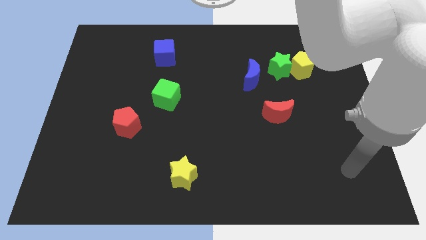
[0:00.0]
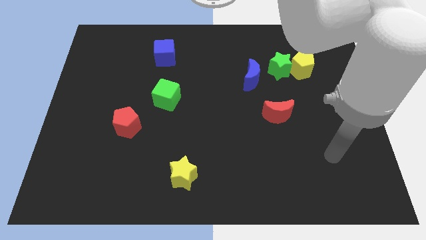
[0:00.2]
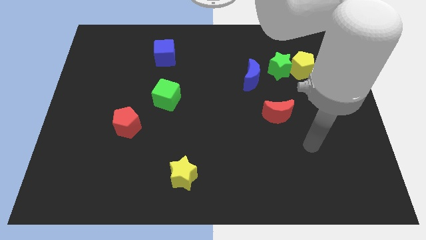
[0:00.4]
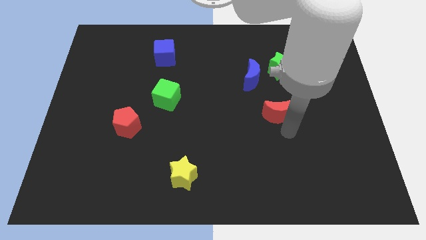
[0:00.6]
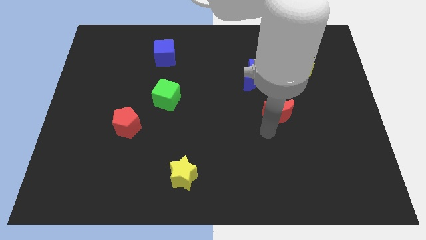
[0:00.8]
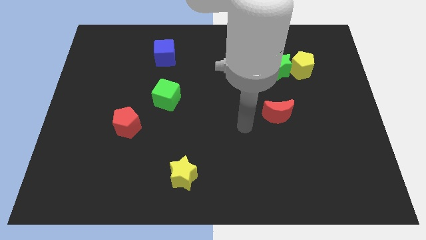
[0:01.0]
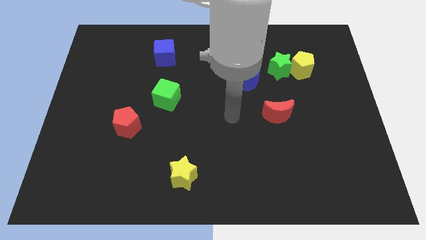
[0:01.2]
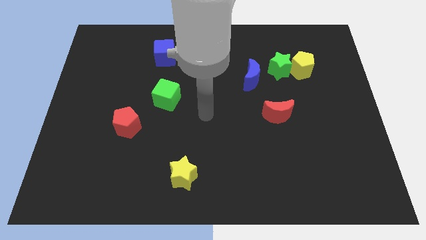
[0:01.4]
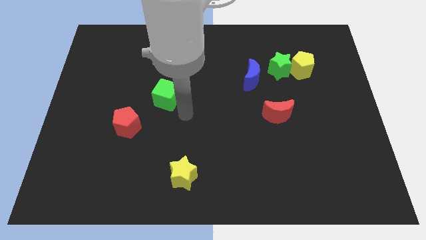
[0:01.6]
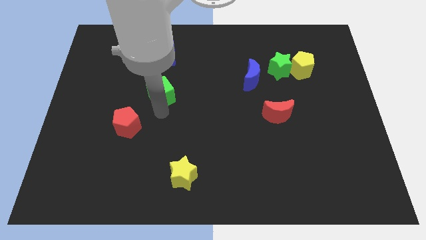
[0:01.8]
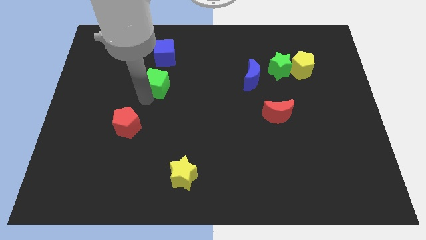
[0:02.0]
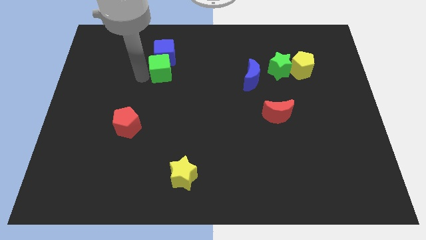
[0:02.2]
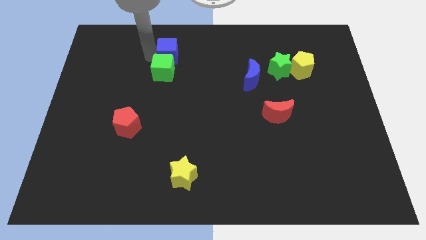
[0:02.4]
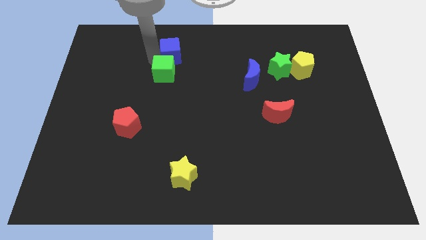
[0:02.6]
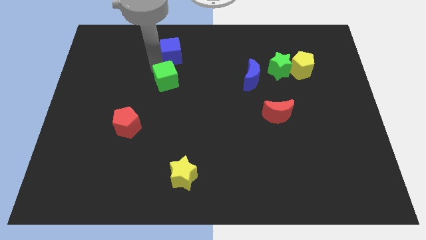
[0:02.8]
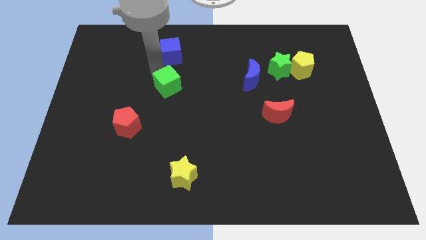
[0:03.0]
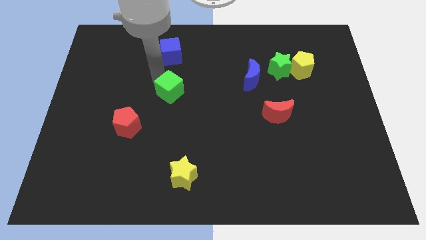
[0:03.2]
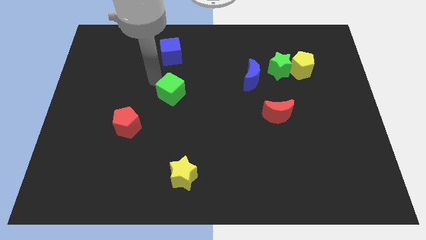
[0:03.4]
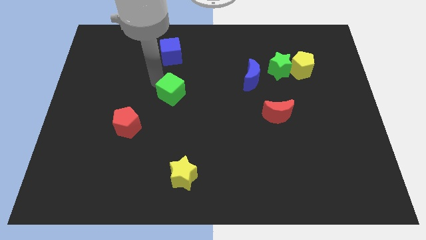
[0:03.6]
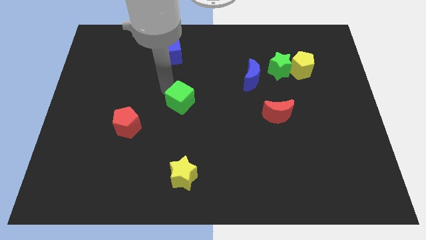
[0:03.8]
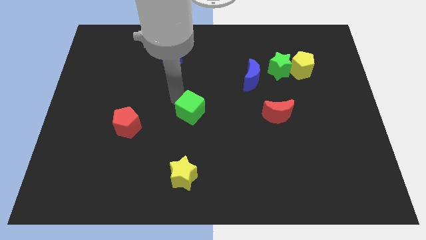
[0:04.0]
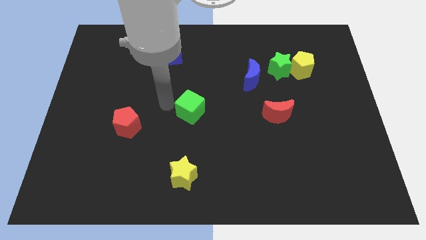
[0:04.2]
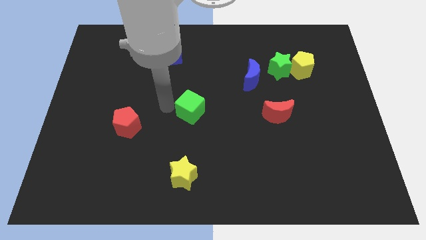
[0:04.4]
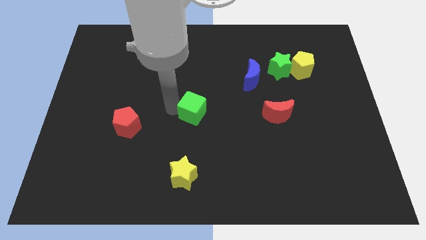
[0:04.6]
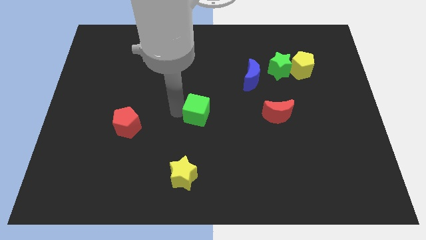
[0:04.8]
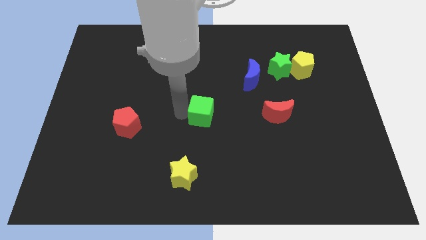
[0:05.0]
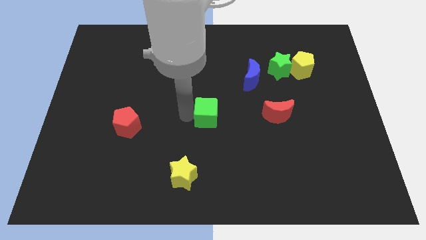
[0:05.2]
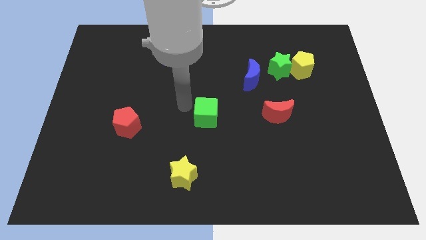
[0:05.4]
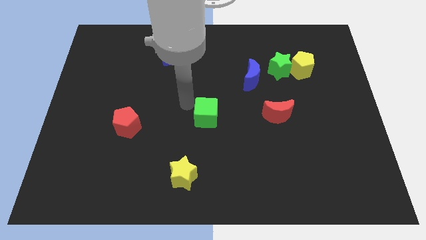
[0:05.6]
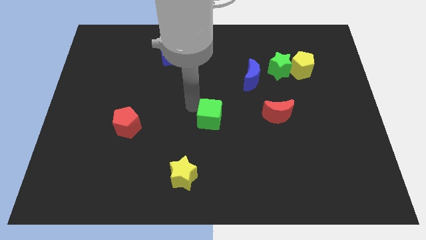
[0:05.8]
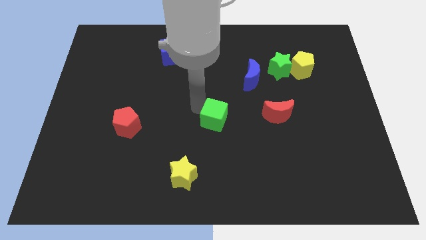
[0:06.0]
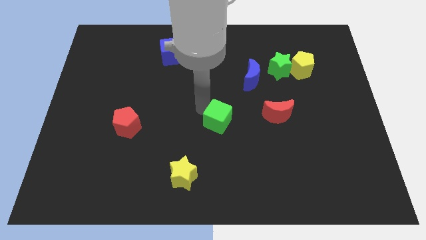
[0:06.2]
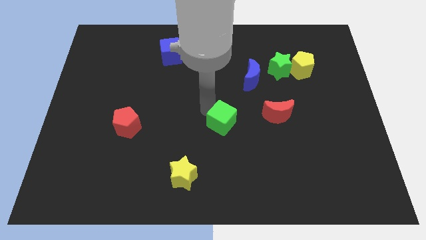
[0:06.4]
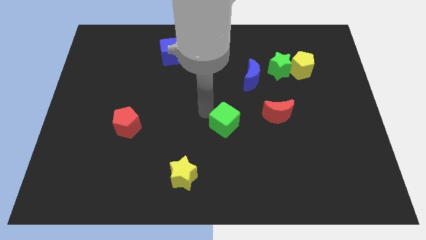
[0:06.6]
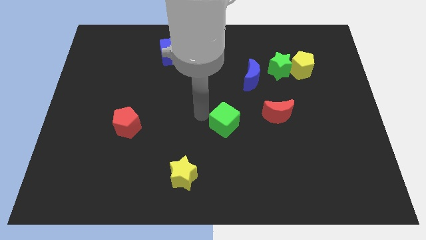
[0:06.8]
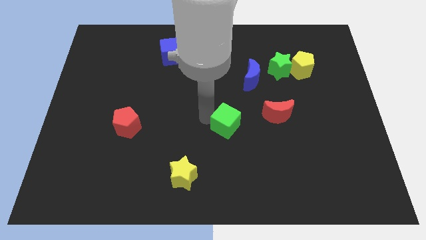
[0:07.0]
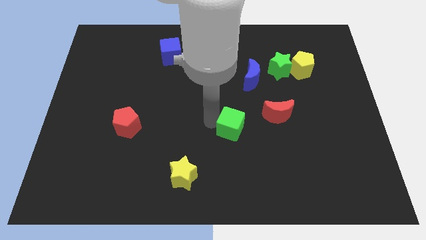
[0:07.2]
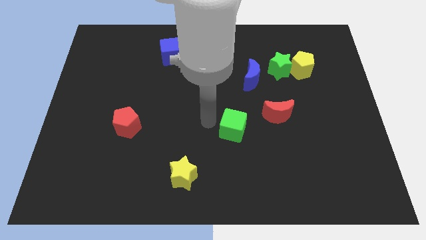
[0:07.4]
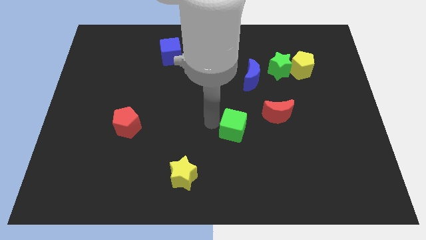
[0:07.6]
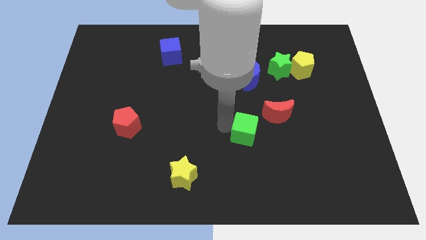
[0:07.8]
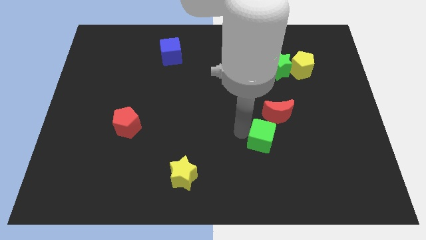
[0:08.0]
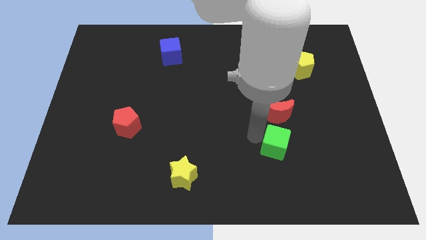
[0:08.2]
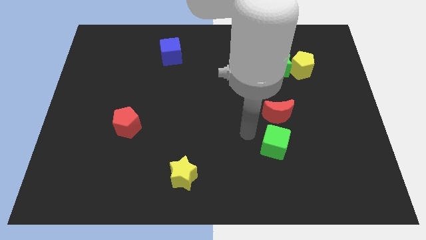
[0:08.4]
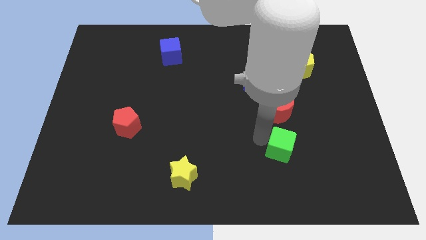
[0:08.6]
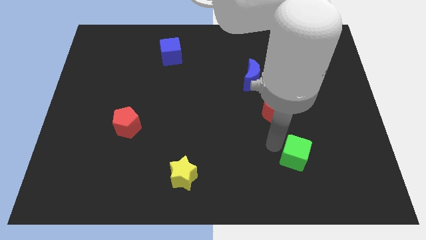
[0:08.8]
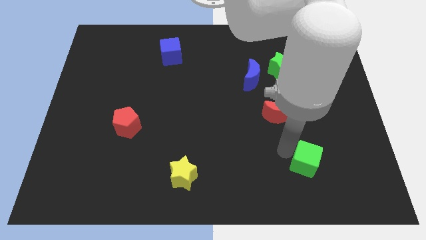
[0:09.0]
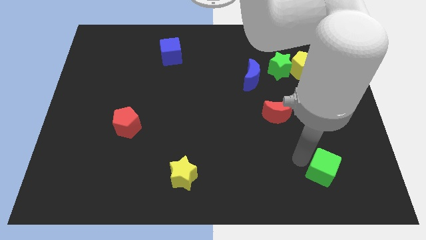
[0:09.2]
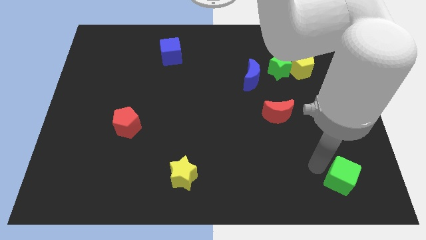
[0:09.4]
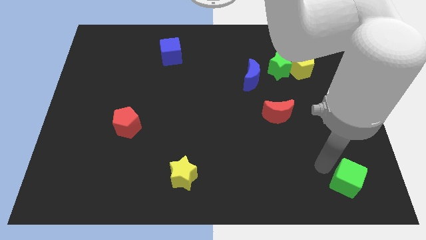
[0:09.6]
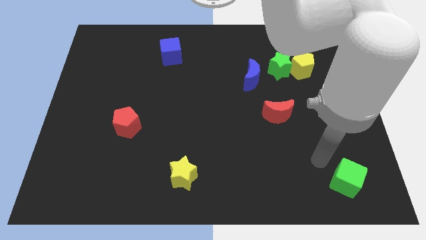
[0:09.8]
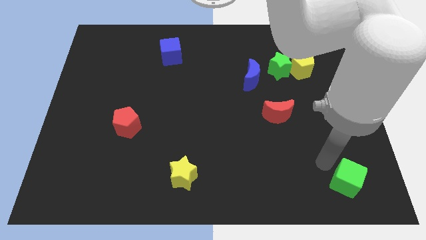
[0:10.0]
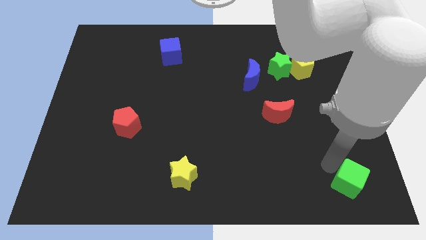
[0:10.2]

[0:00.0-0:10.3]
push the green cube to the lower right corner

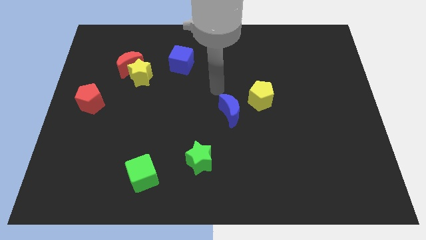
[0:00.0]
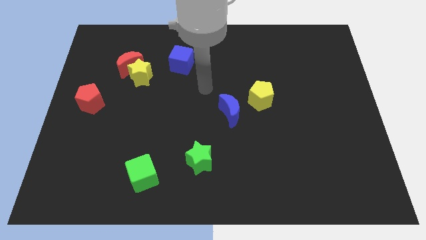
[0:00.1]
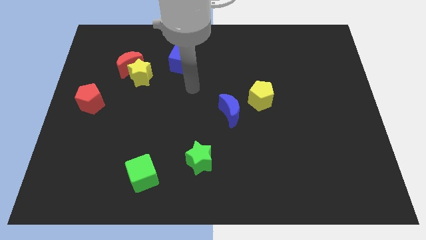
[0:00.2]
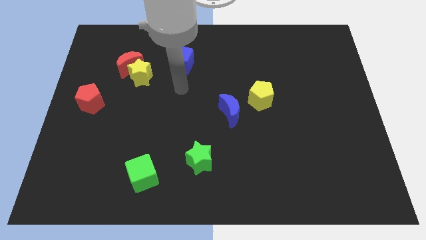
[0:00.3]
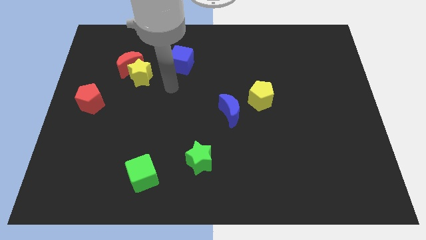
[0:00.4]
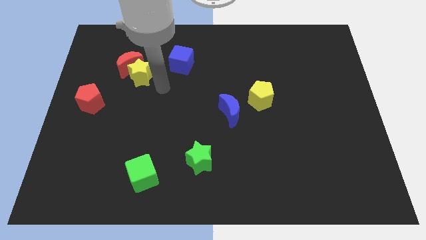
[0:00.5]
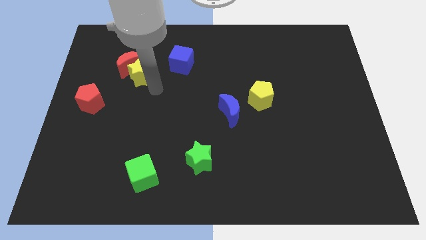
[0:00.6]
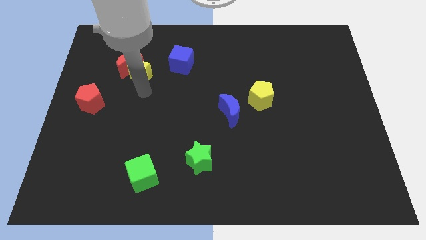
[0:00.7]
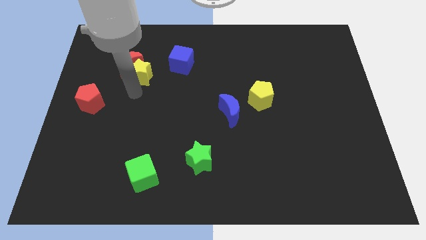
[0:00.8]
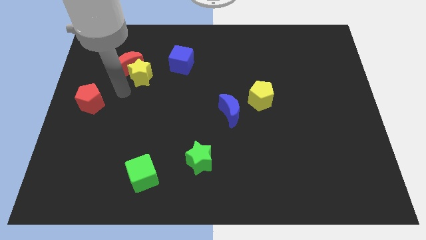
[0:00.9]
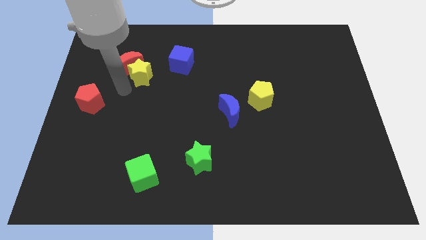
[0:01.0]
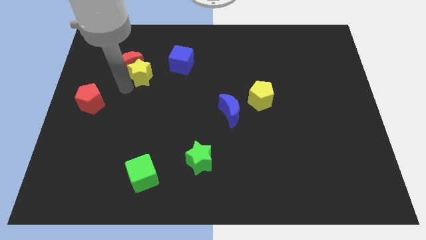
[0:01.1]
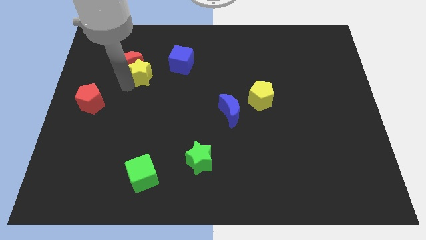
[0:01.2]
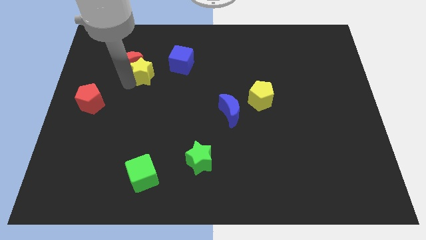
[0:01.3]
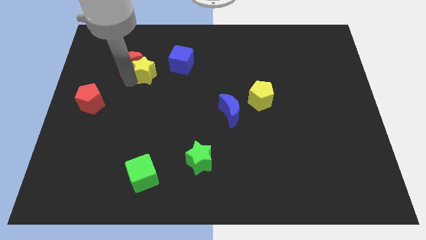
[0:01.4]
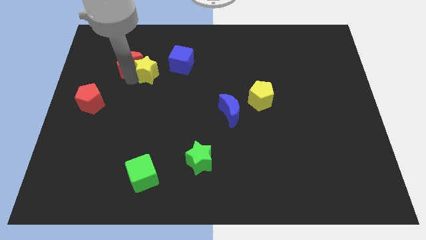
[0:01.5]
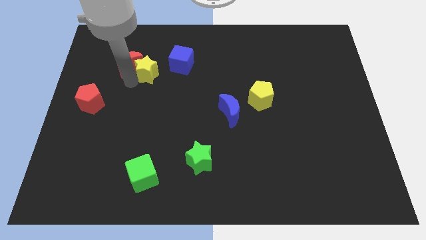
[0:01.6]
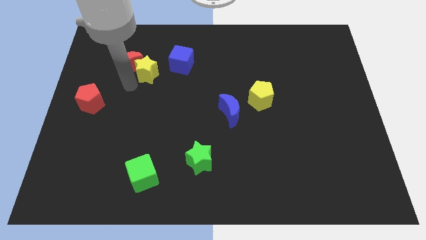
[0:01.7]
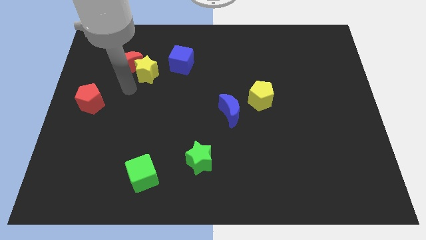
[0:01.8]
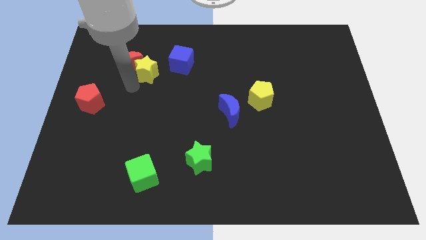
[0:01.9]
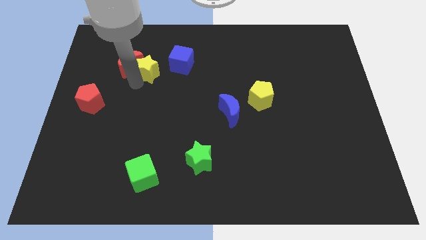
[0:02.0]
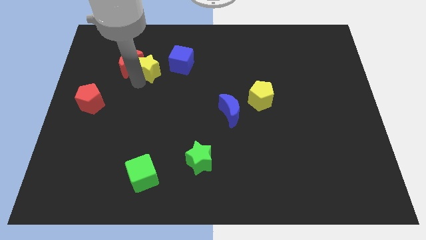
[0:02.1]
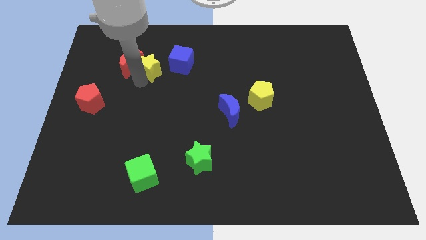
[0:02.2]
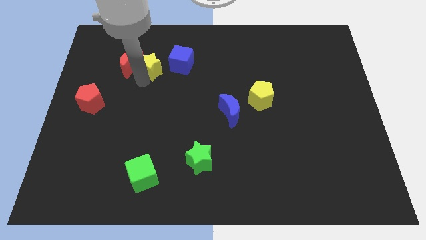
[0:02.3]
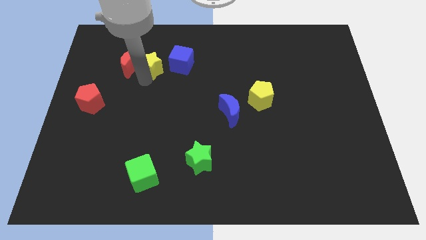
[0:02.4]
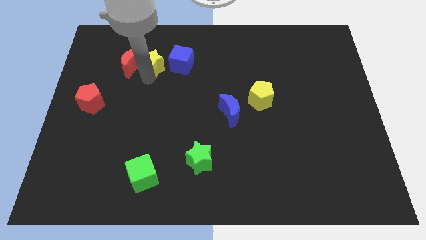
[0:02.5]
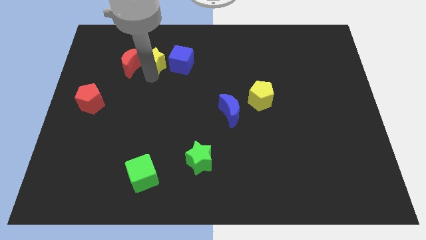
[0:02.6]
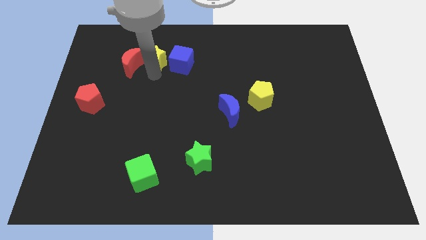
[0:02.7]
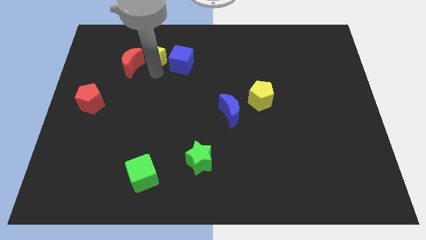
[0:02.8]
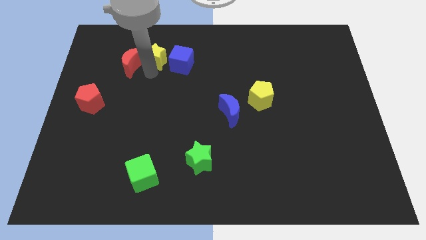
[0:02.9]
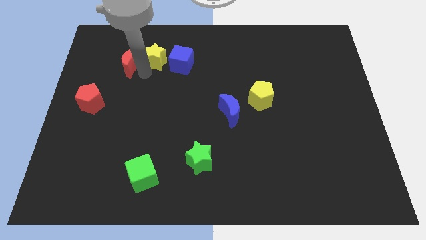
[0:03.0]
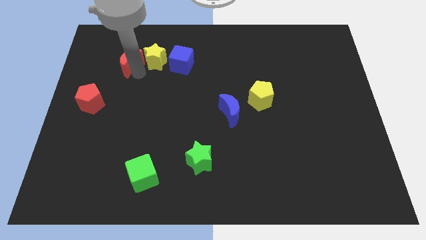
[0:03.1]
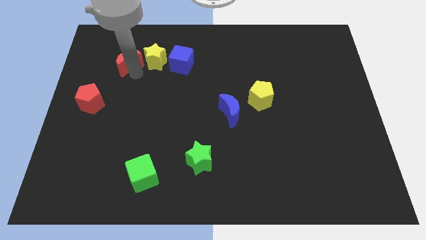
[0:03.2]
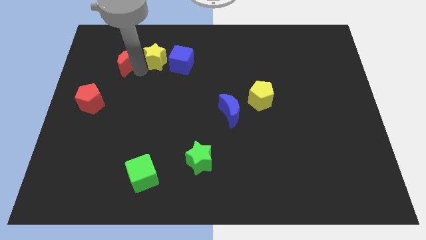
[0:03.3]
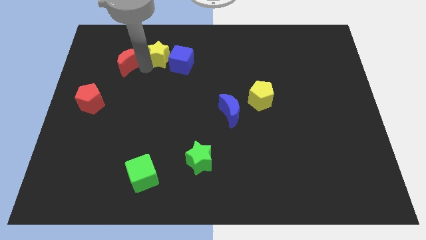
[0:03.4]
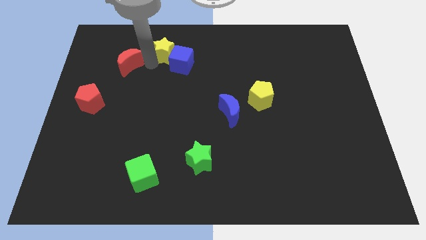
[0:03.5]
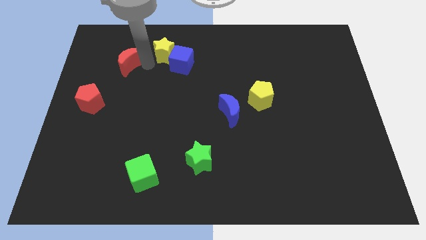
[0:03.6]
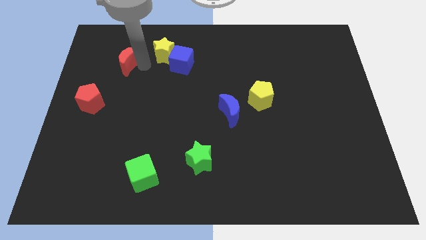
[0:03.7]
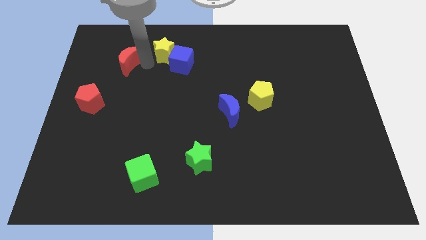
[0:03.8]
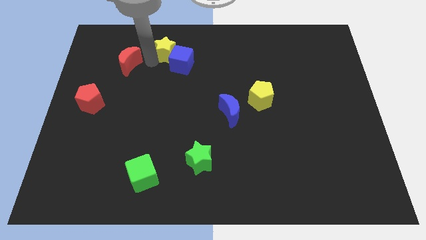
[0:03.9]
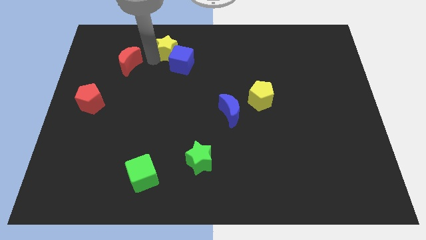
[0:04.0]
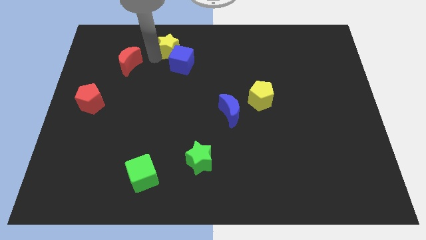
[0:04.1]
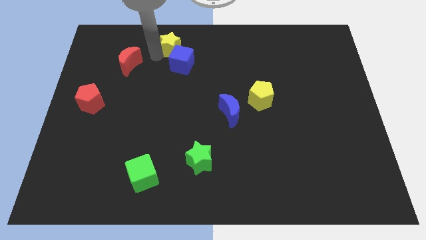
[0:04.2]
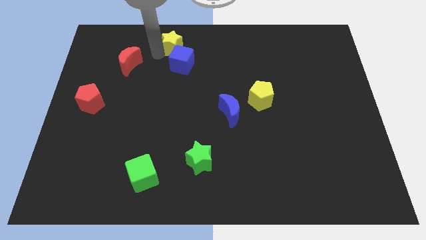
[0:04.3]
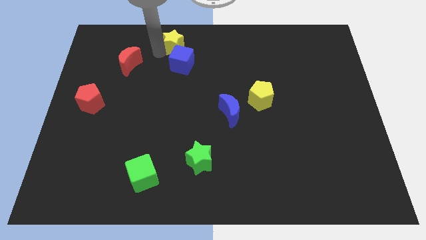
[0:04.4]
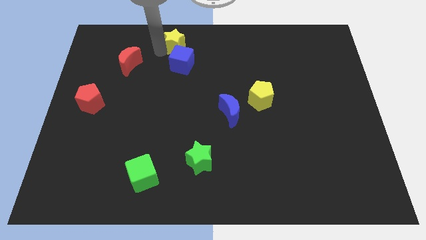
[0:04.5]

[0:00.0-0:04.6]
slide the yellow star to the top side
